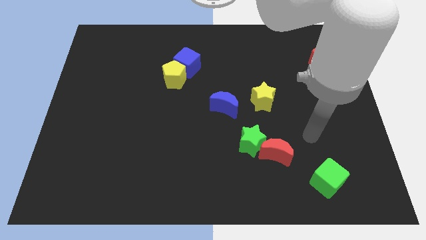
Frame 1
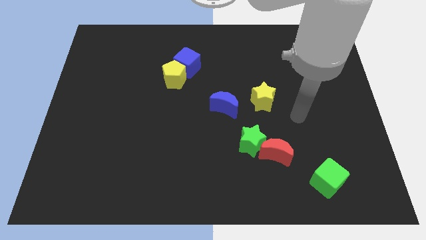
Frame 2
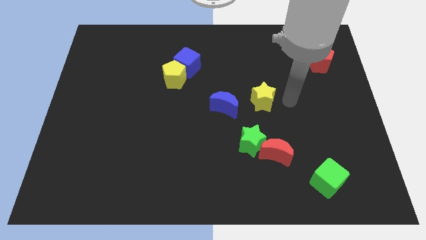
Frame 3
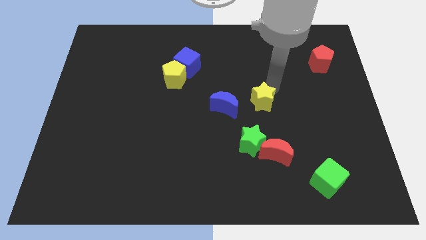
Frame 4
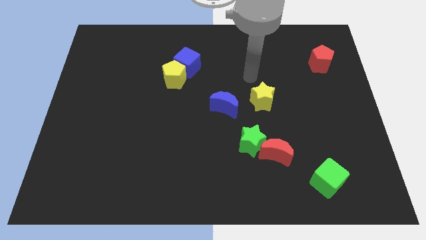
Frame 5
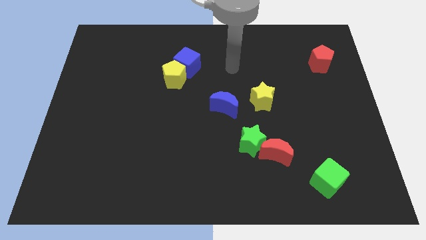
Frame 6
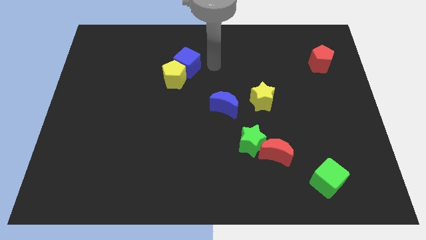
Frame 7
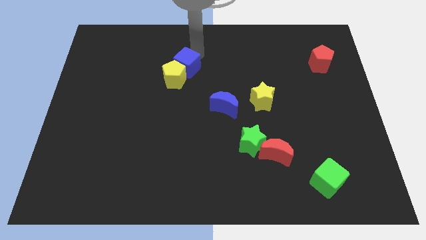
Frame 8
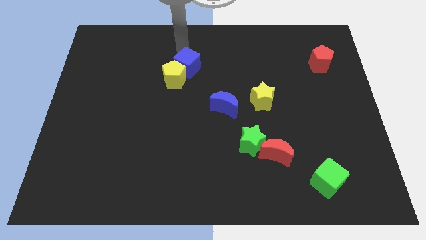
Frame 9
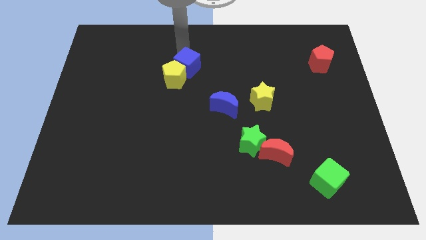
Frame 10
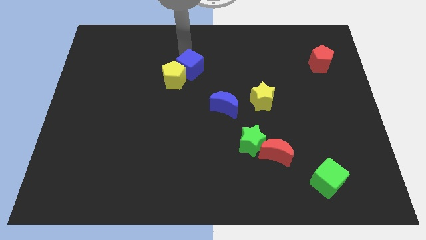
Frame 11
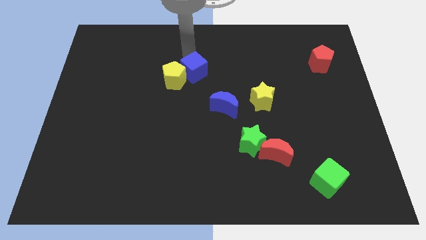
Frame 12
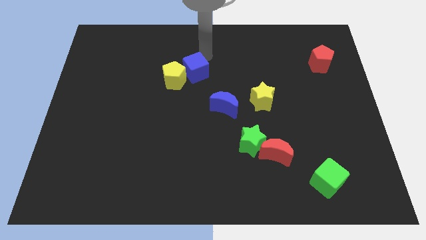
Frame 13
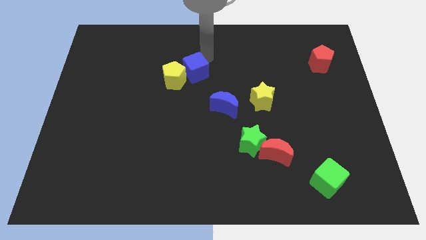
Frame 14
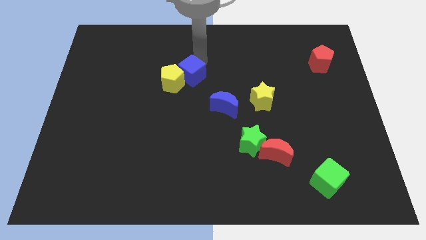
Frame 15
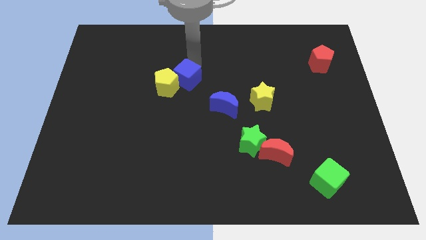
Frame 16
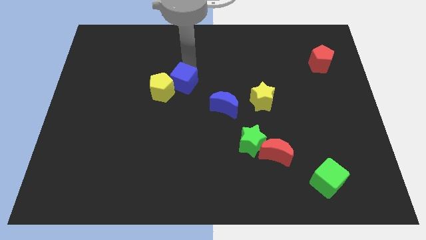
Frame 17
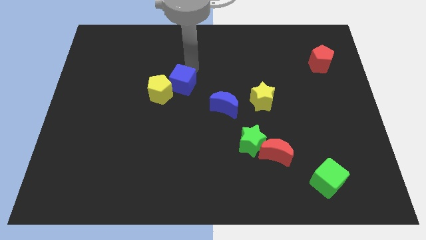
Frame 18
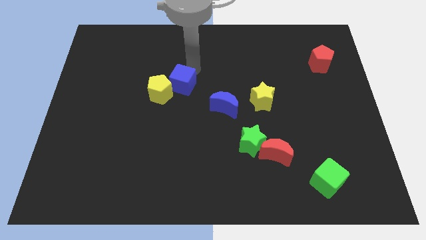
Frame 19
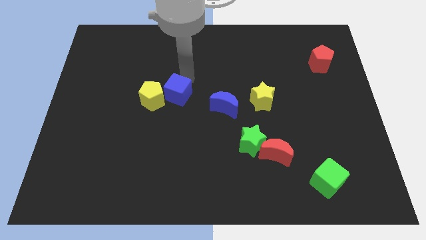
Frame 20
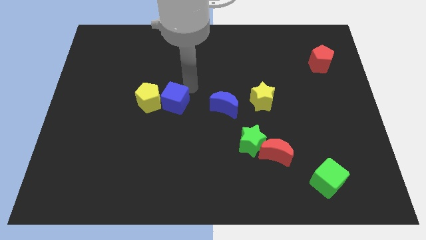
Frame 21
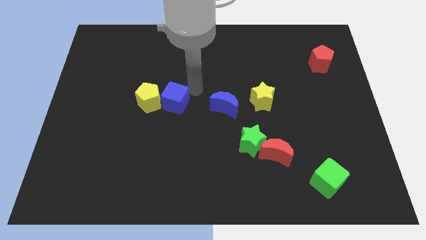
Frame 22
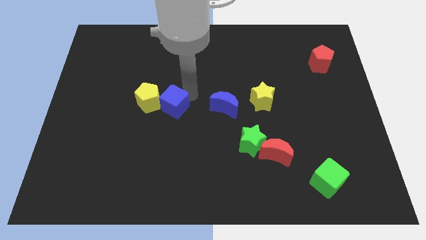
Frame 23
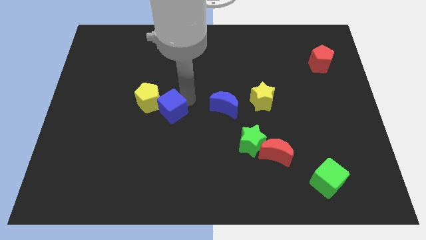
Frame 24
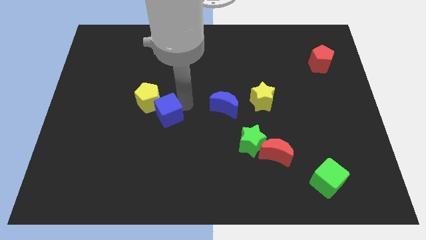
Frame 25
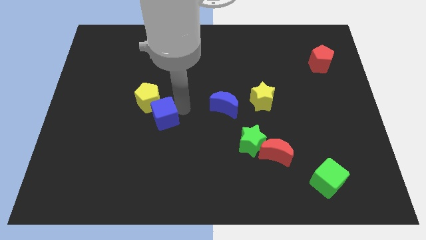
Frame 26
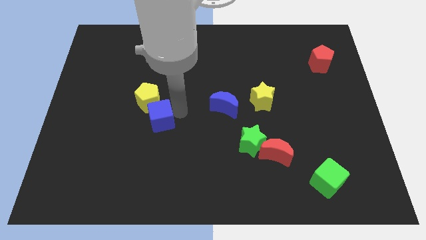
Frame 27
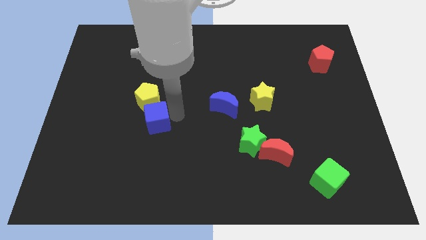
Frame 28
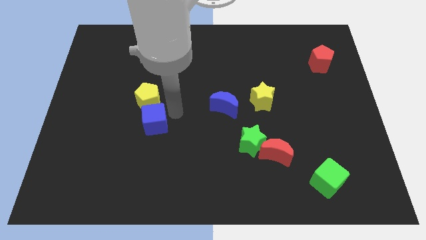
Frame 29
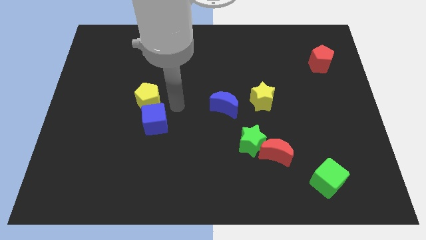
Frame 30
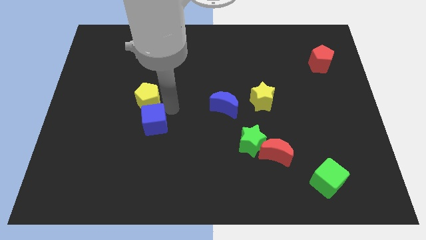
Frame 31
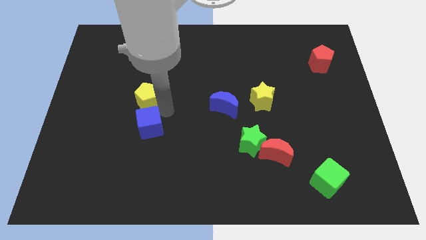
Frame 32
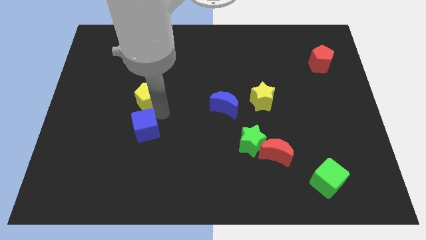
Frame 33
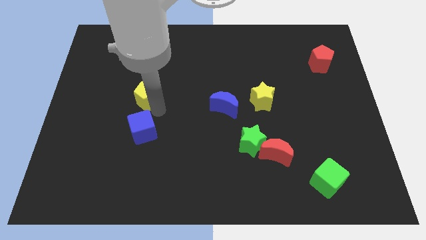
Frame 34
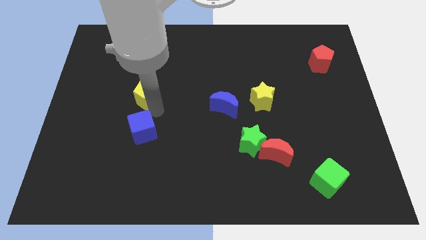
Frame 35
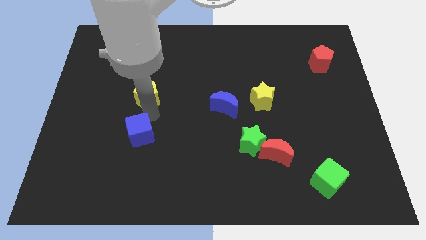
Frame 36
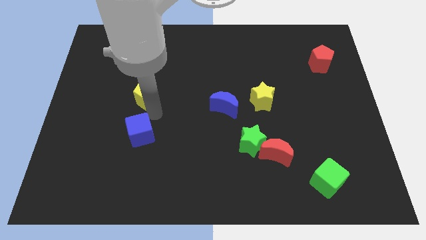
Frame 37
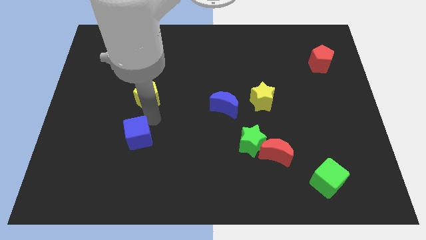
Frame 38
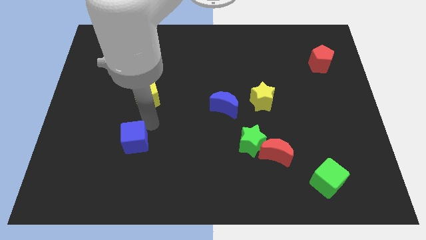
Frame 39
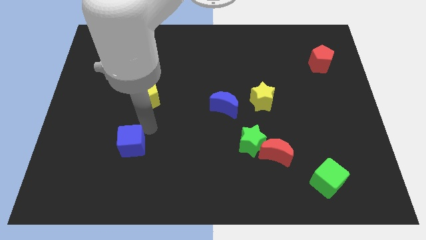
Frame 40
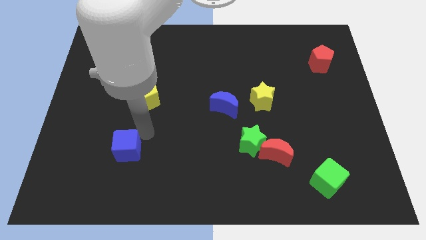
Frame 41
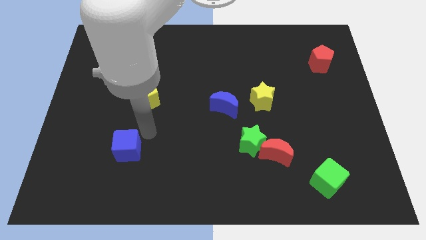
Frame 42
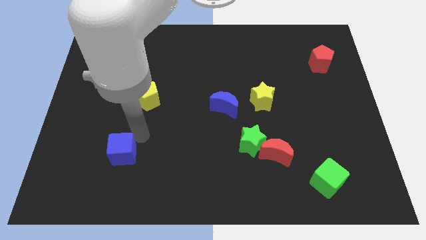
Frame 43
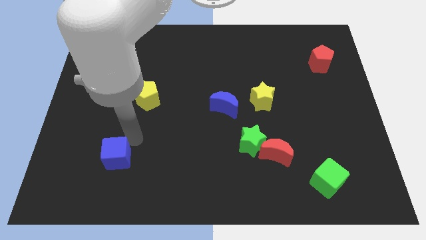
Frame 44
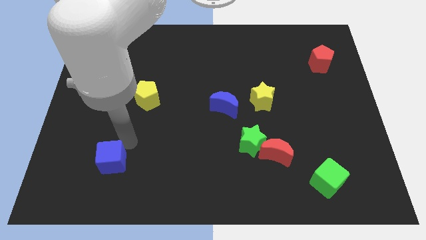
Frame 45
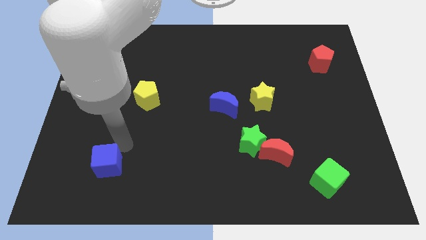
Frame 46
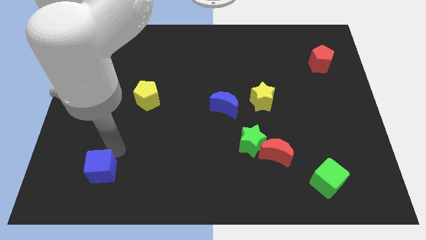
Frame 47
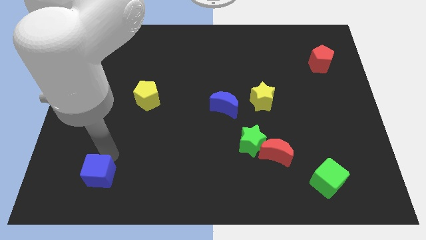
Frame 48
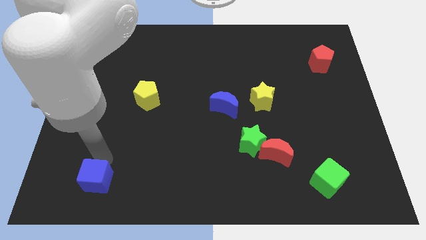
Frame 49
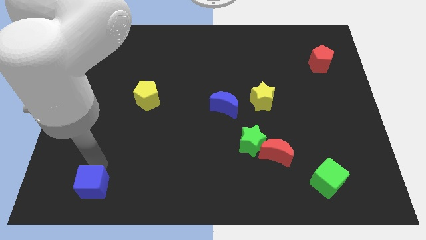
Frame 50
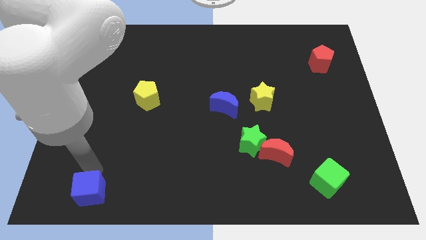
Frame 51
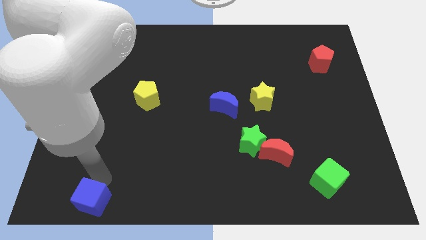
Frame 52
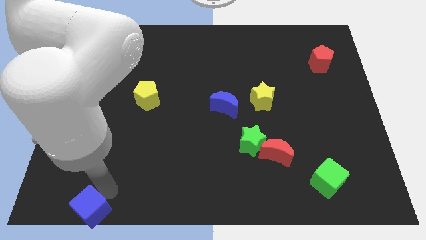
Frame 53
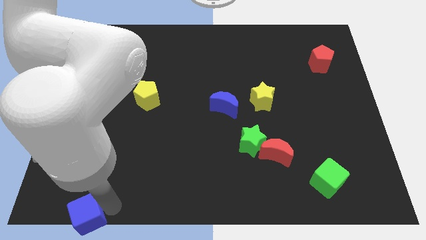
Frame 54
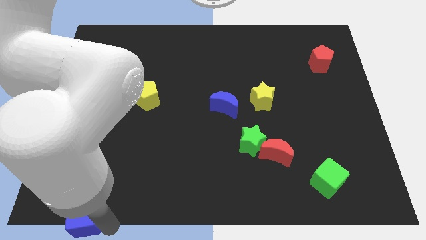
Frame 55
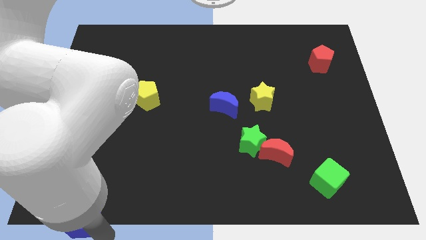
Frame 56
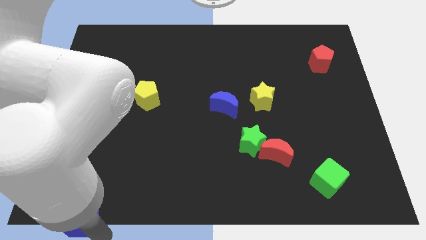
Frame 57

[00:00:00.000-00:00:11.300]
push the blue cube to the bottom left corner
